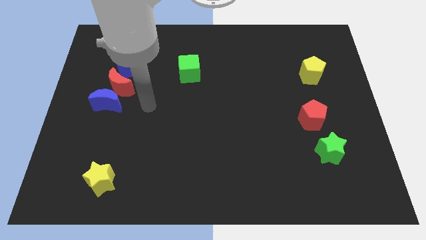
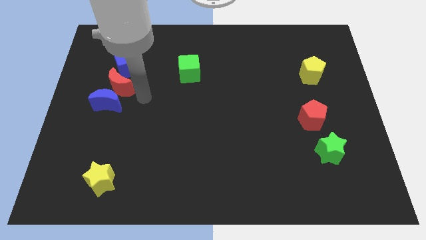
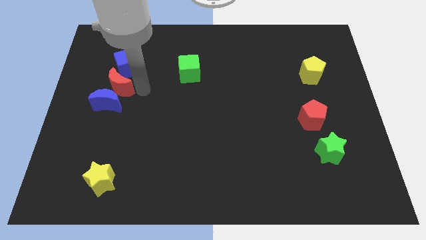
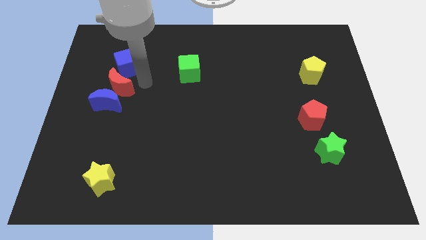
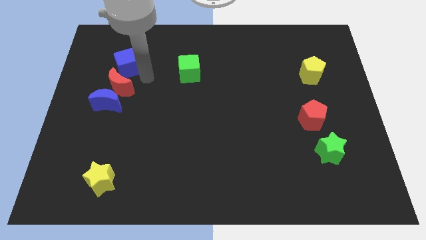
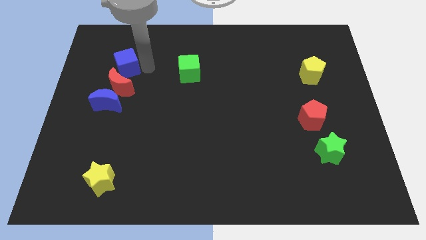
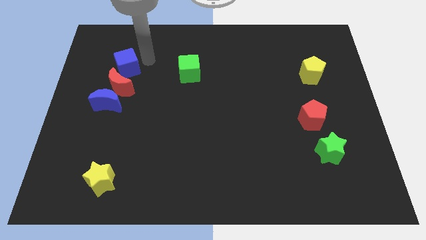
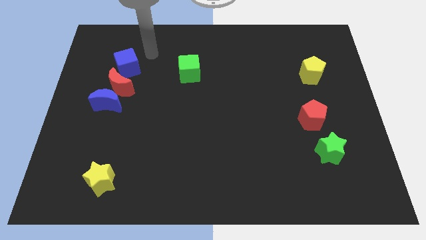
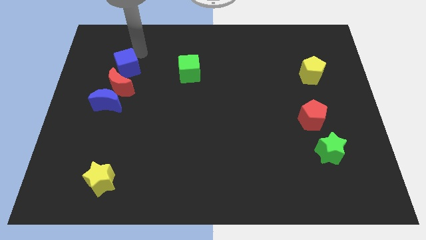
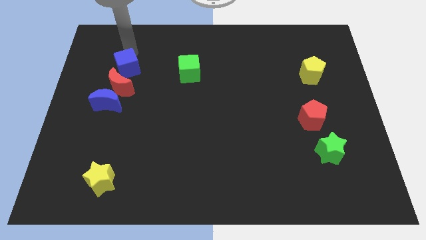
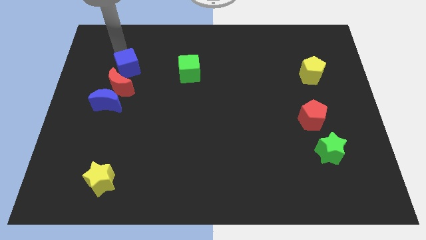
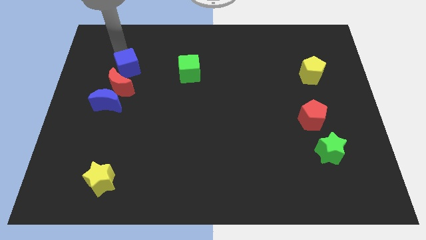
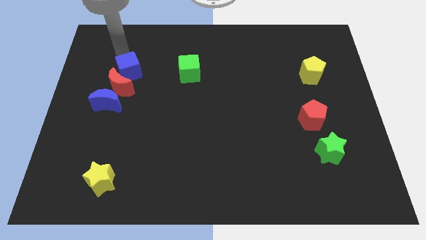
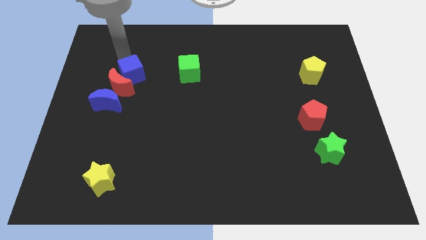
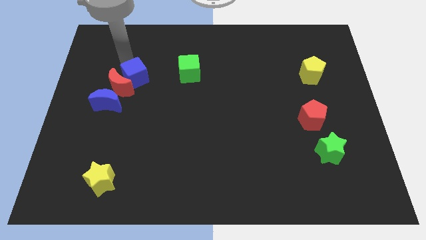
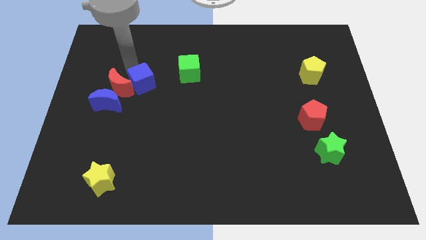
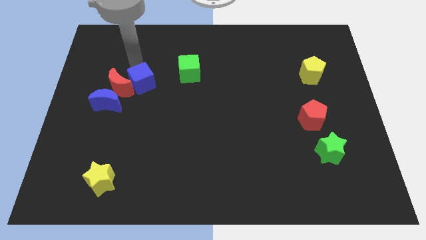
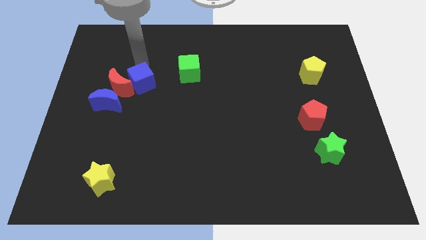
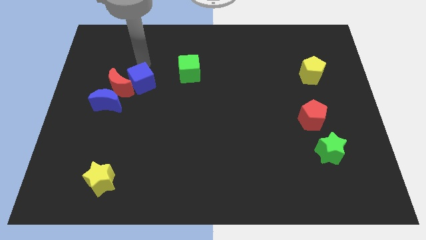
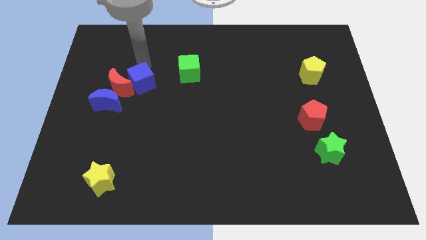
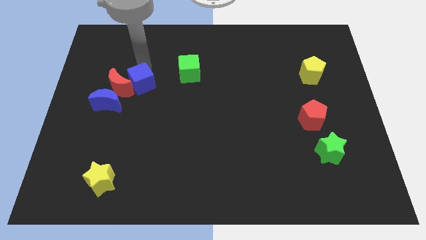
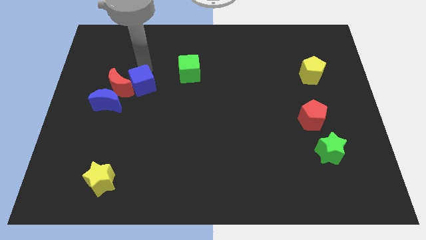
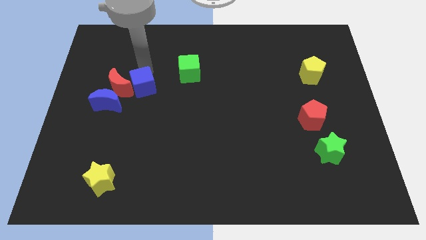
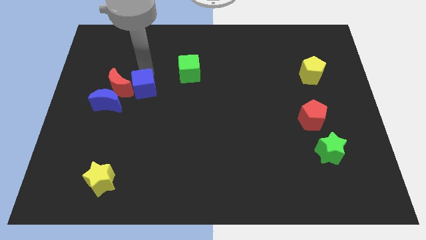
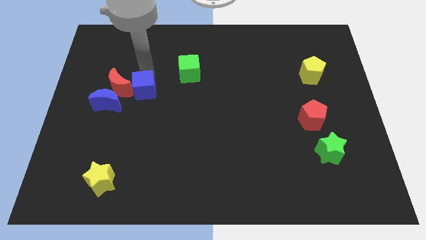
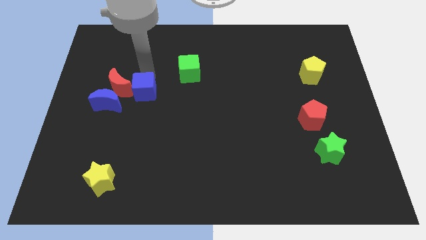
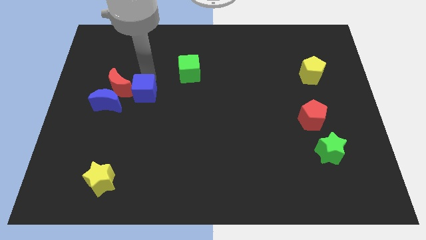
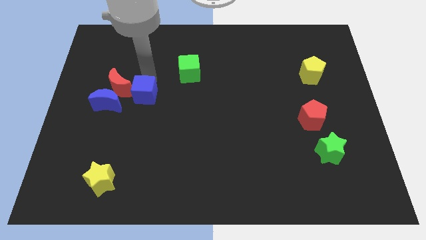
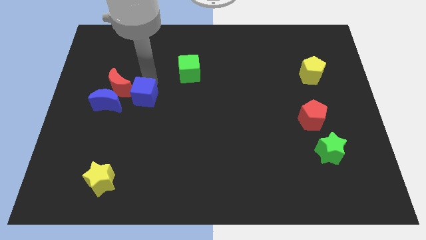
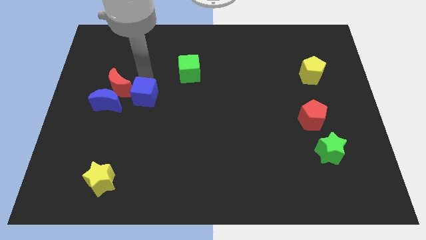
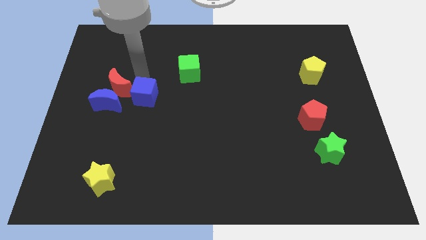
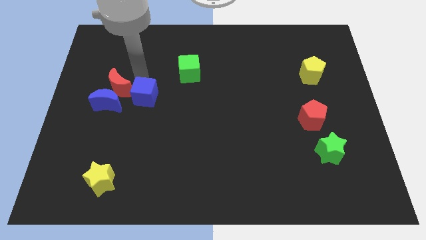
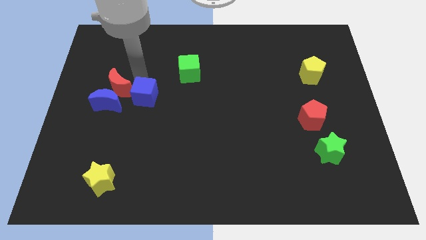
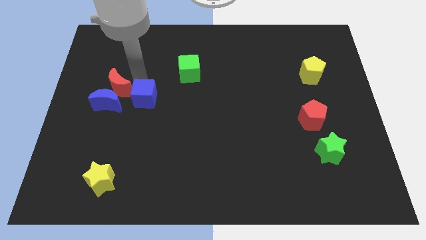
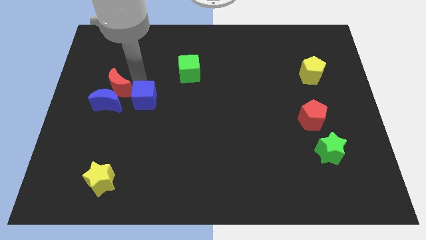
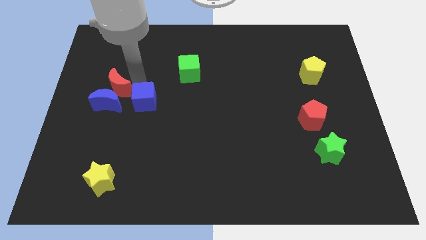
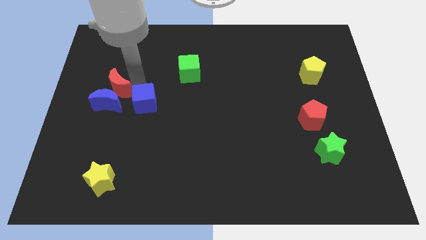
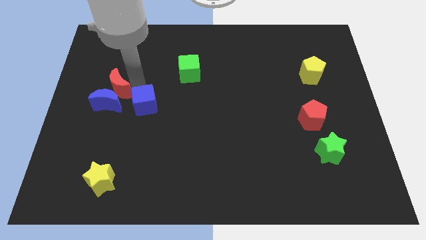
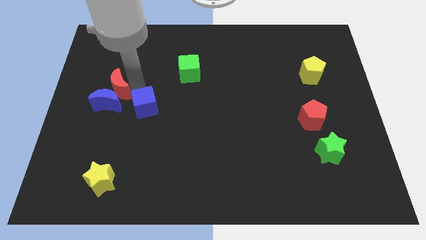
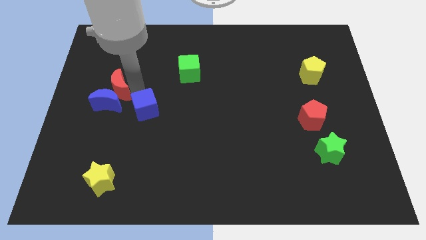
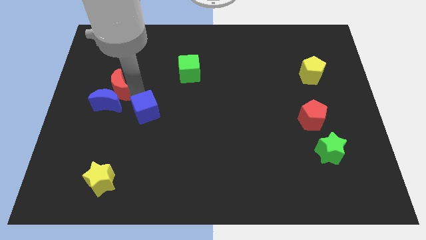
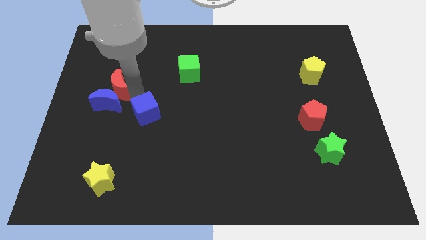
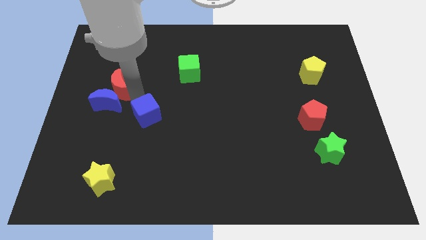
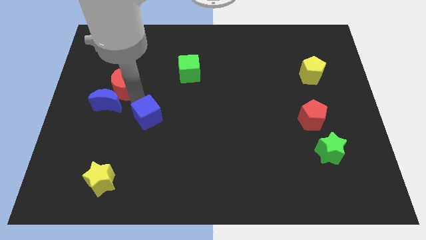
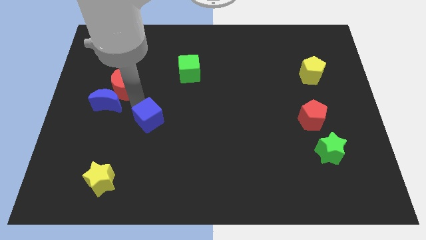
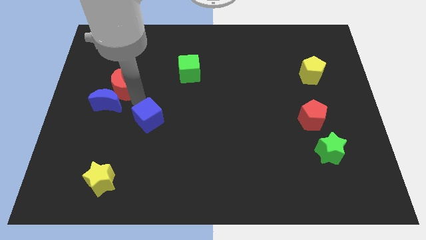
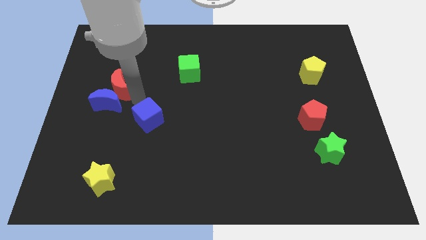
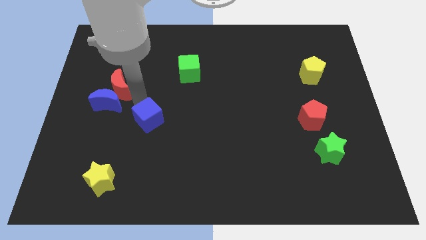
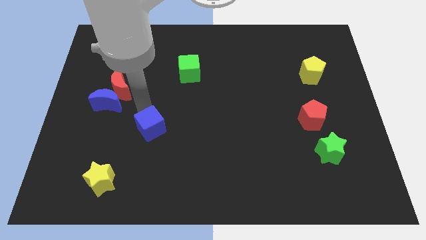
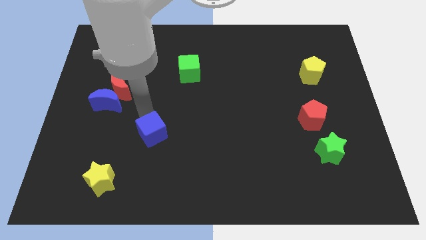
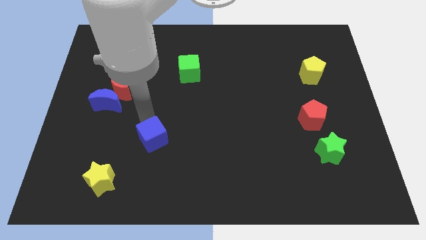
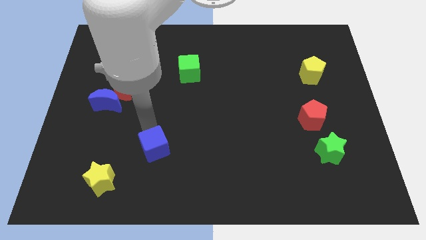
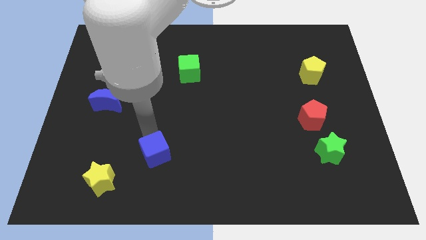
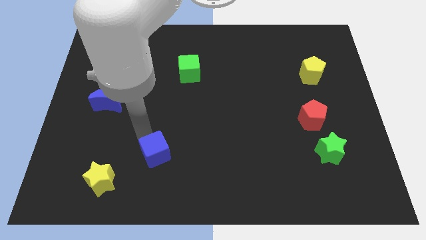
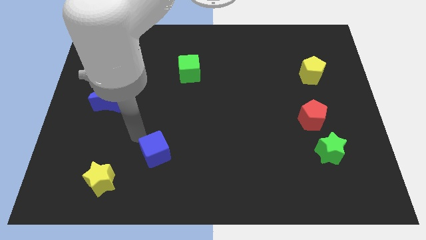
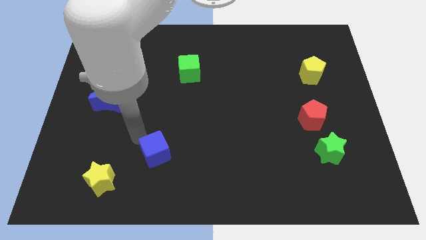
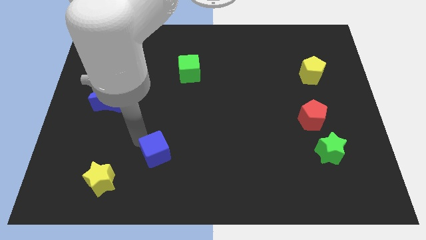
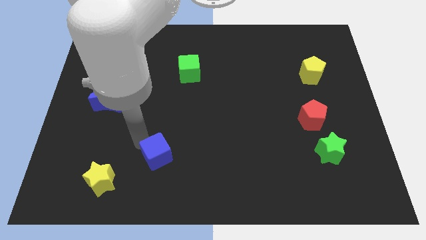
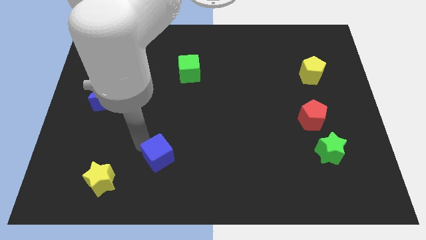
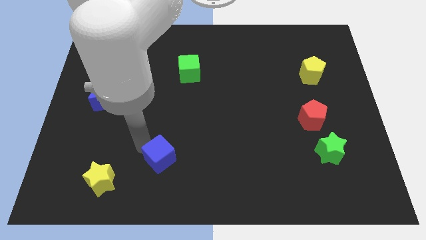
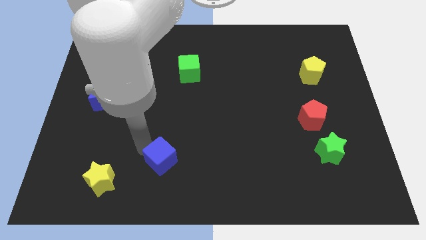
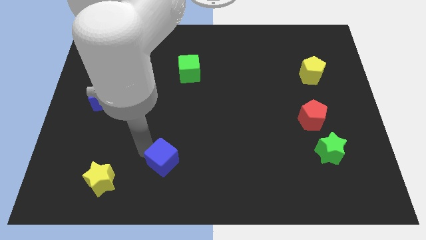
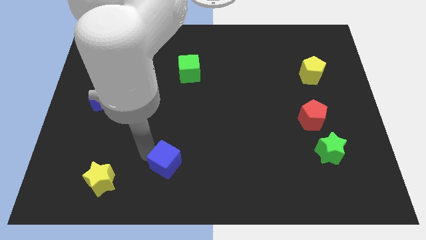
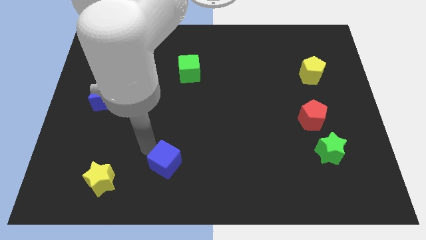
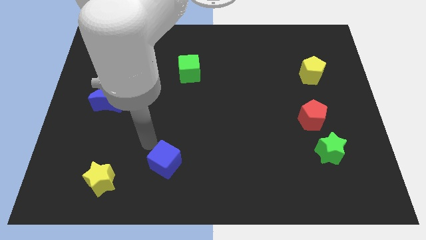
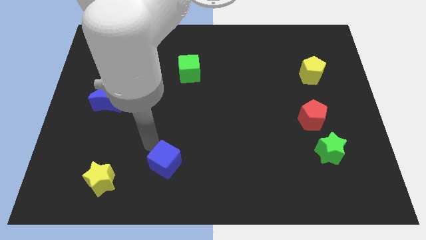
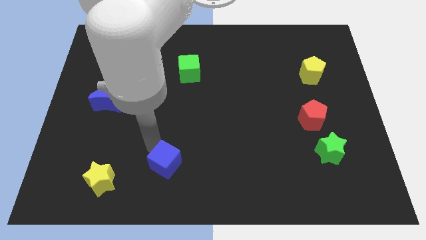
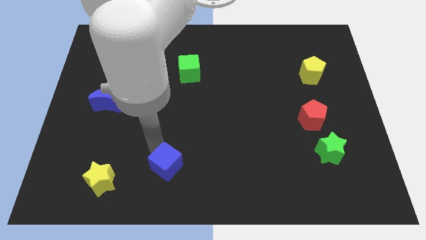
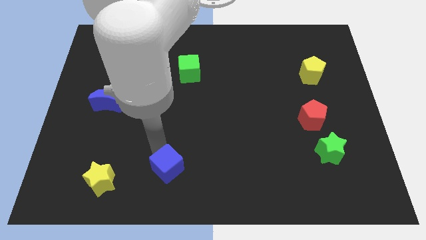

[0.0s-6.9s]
move the blue cube to the bottom
